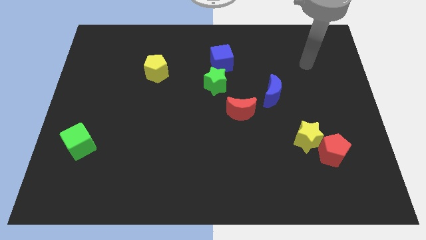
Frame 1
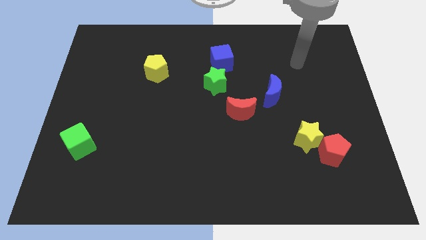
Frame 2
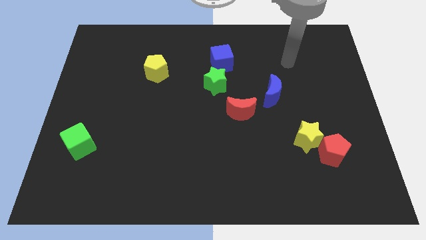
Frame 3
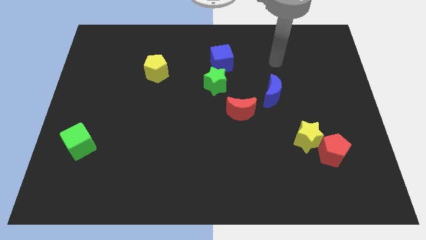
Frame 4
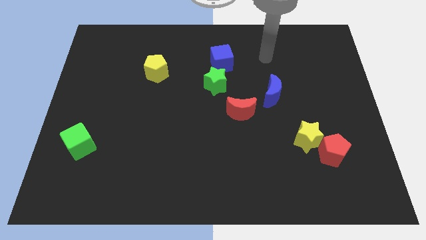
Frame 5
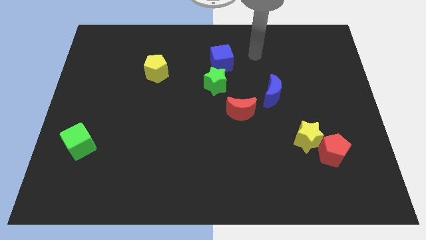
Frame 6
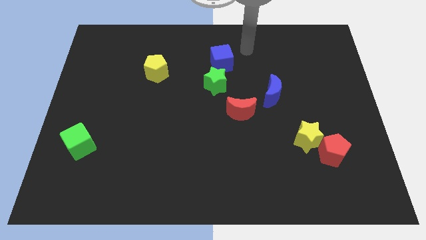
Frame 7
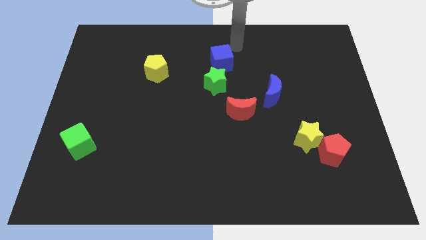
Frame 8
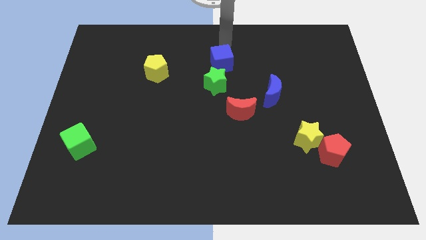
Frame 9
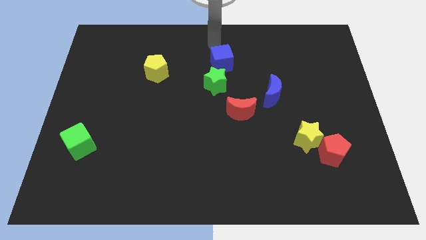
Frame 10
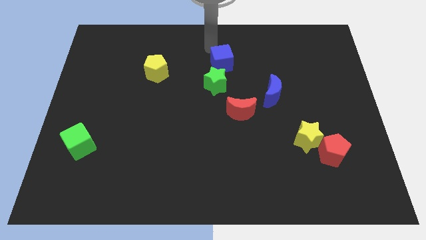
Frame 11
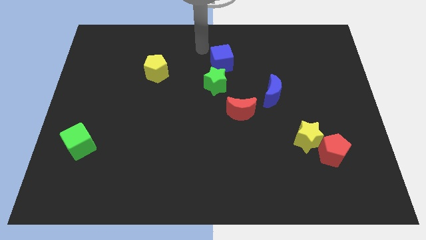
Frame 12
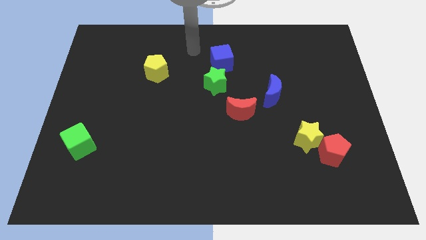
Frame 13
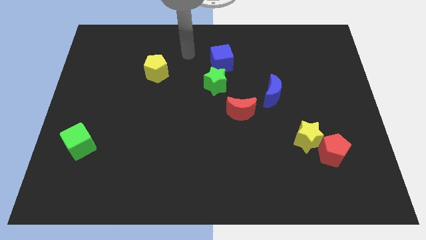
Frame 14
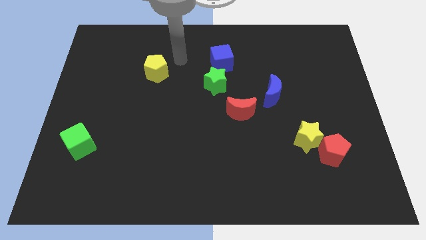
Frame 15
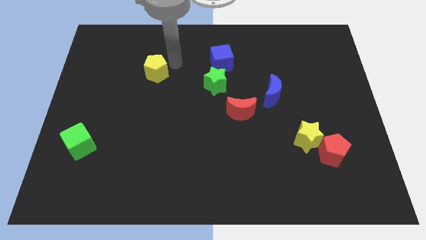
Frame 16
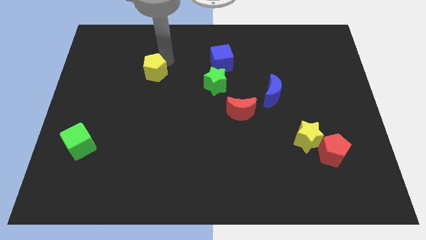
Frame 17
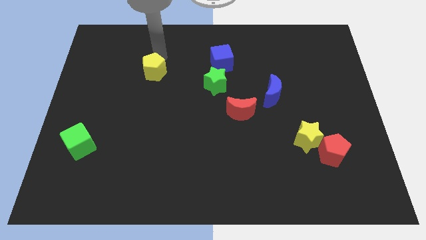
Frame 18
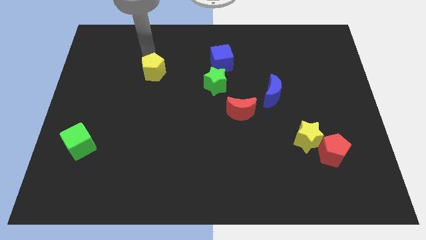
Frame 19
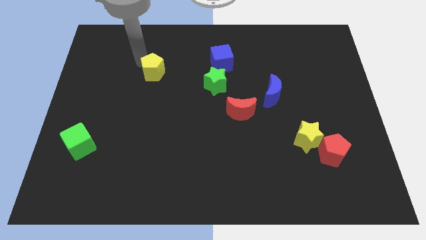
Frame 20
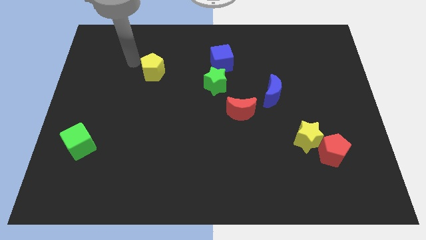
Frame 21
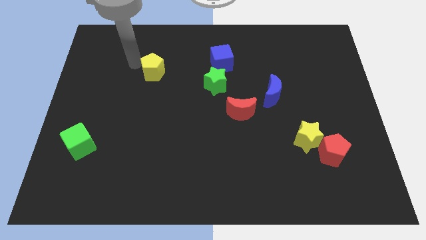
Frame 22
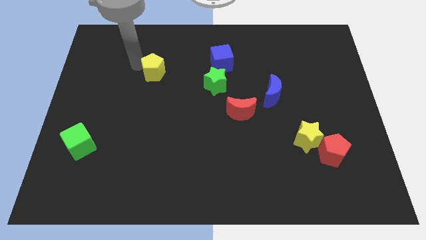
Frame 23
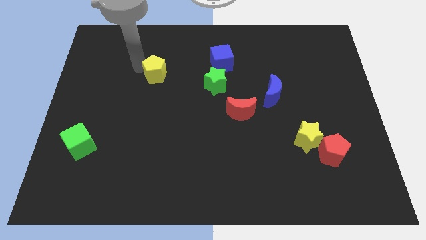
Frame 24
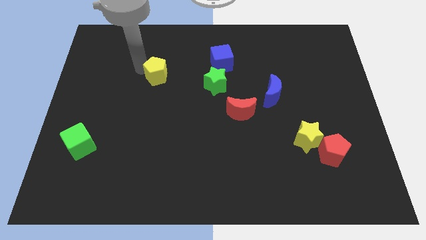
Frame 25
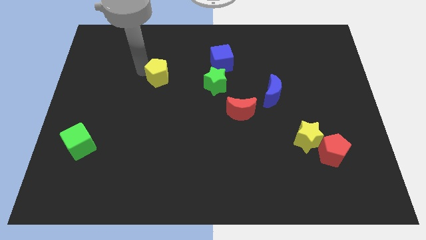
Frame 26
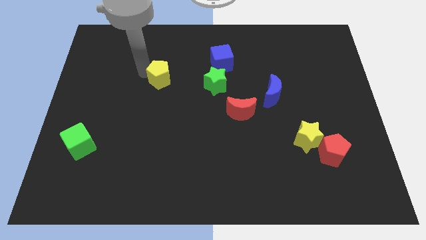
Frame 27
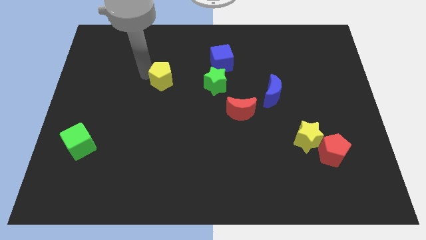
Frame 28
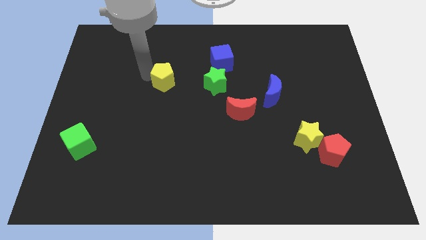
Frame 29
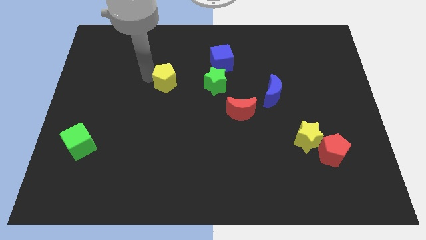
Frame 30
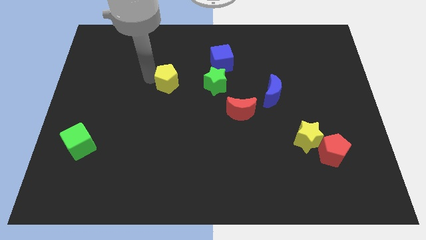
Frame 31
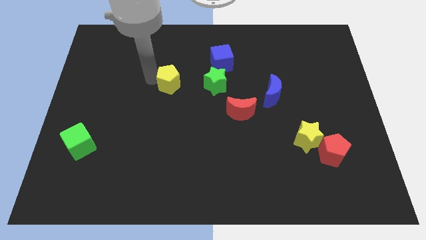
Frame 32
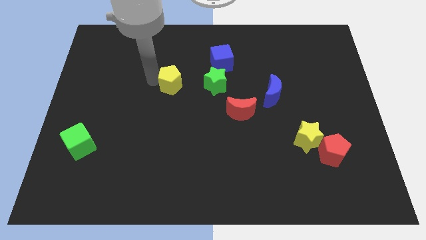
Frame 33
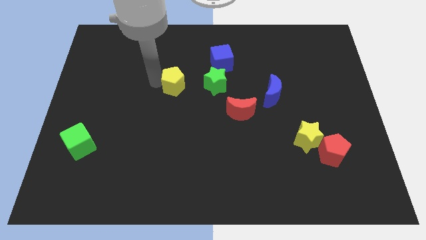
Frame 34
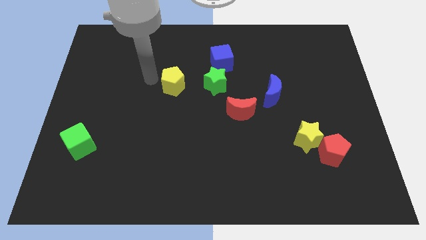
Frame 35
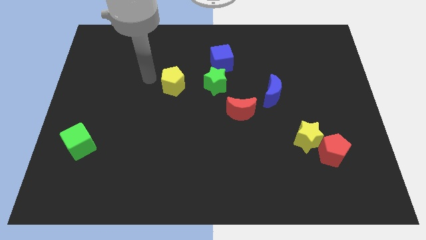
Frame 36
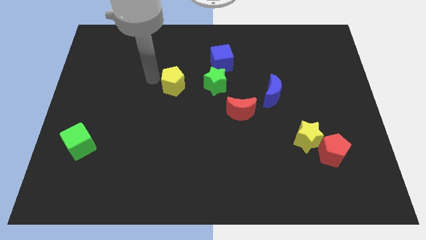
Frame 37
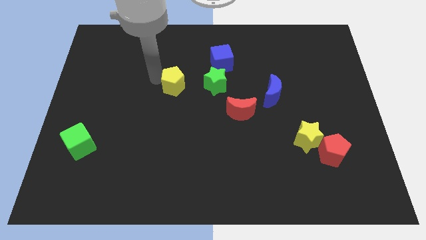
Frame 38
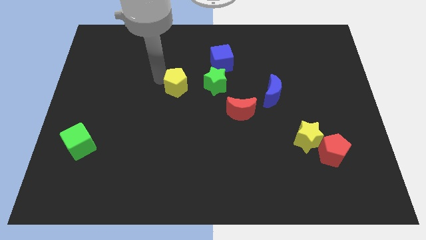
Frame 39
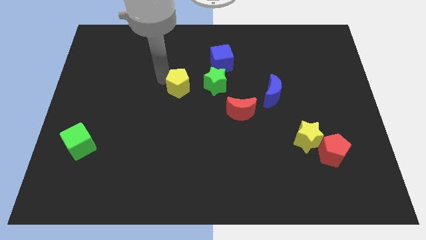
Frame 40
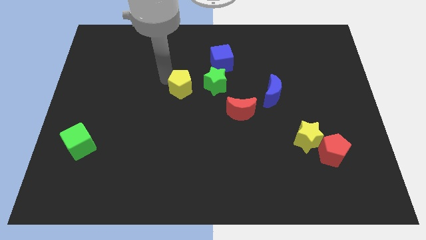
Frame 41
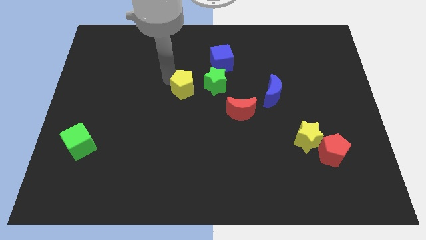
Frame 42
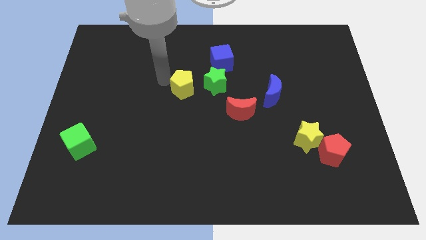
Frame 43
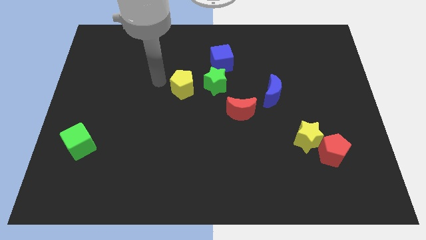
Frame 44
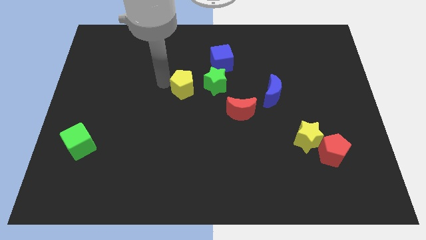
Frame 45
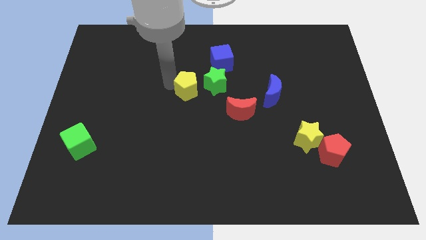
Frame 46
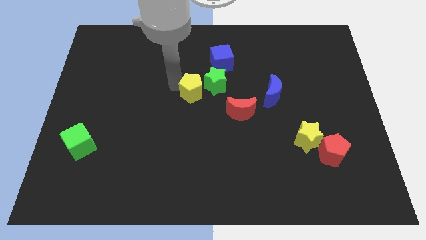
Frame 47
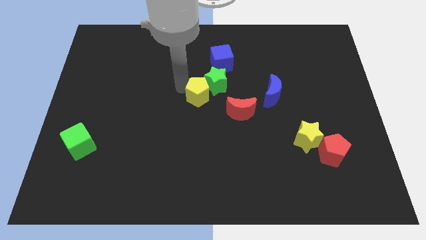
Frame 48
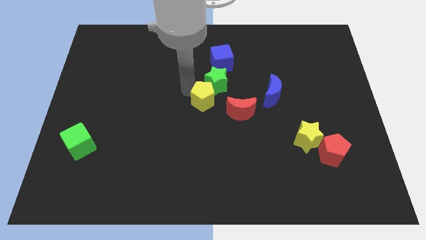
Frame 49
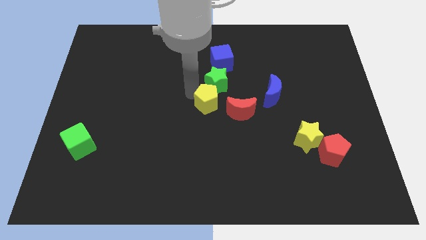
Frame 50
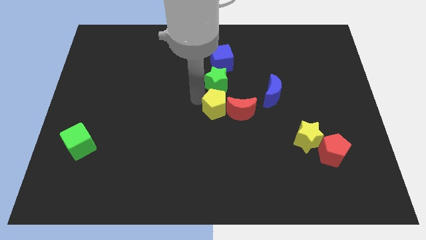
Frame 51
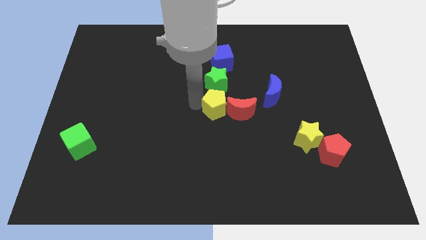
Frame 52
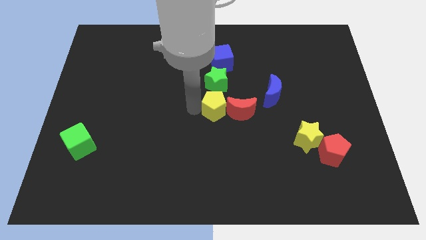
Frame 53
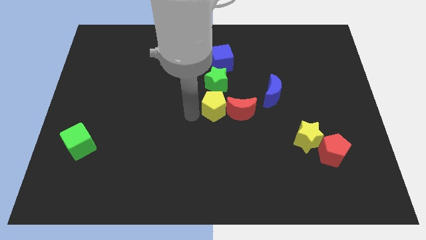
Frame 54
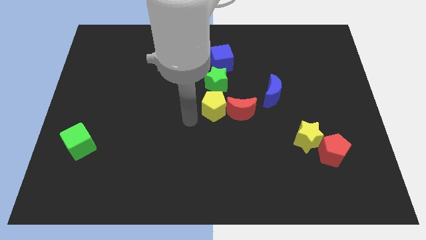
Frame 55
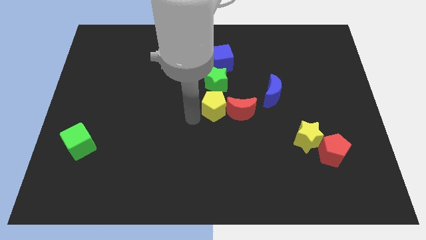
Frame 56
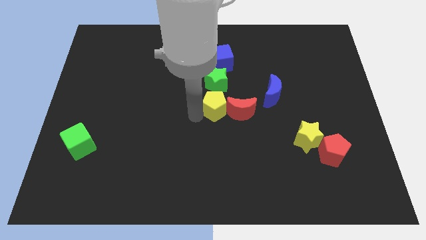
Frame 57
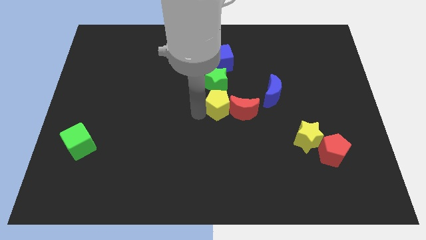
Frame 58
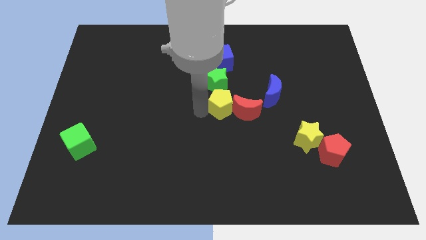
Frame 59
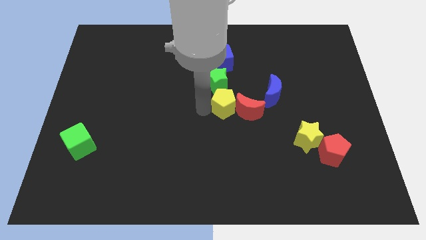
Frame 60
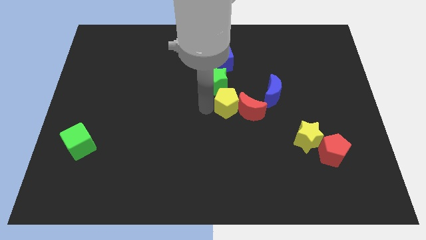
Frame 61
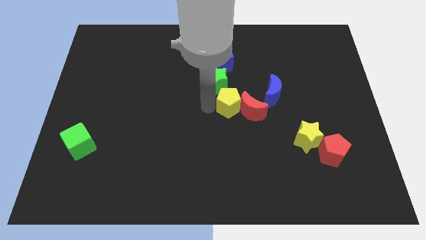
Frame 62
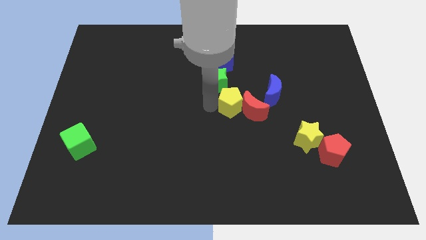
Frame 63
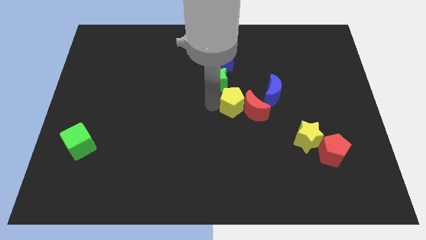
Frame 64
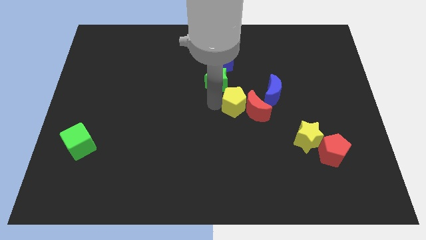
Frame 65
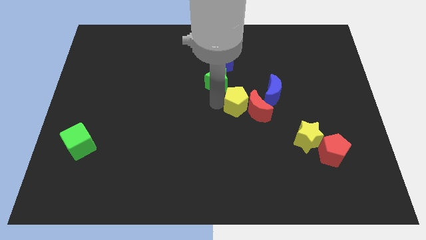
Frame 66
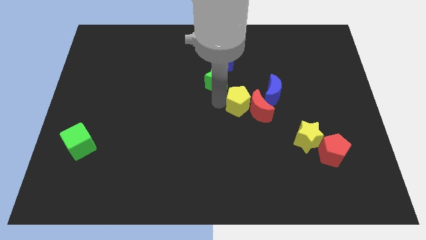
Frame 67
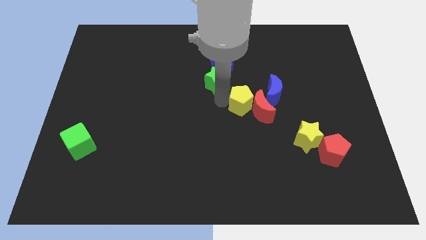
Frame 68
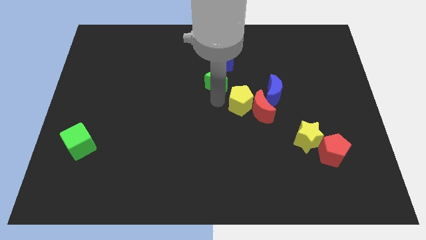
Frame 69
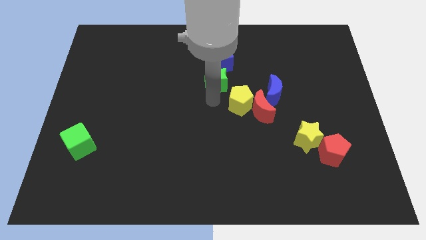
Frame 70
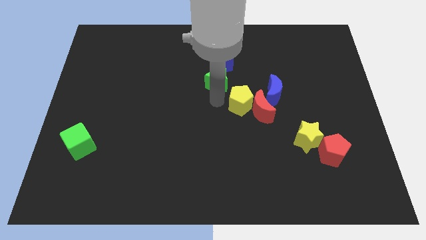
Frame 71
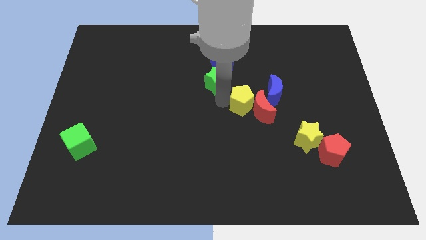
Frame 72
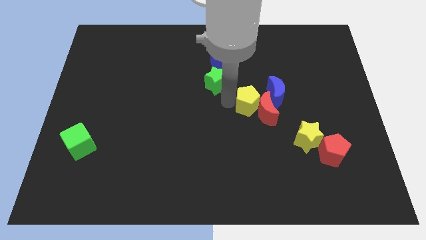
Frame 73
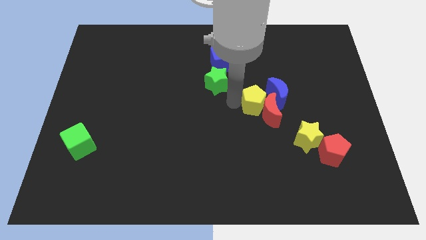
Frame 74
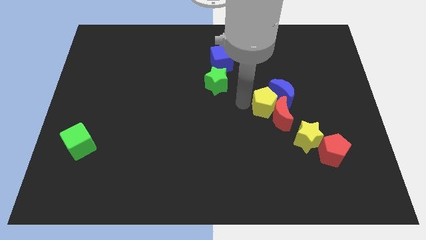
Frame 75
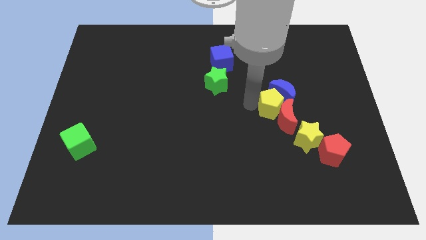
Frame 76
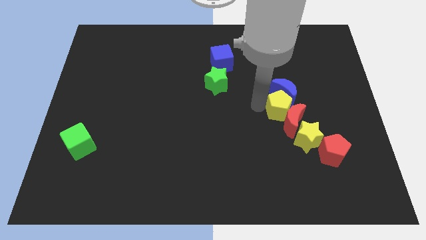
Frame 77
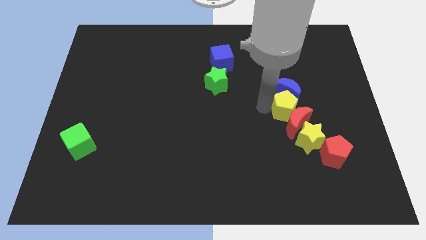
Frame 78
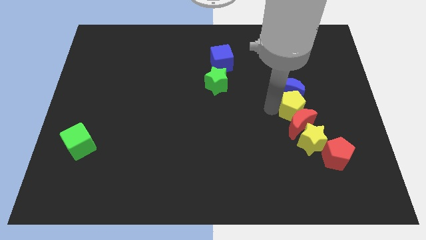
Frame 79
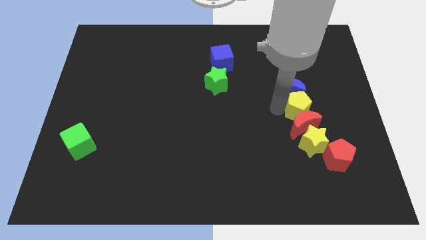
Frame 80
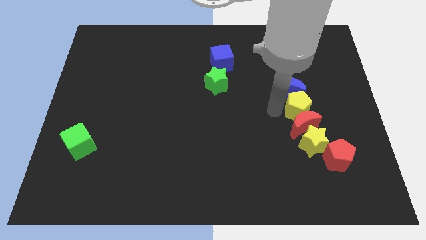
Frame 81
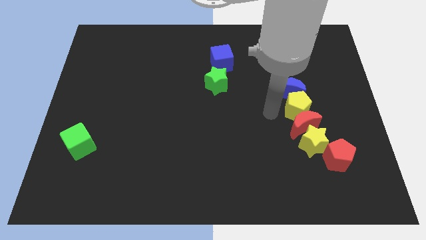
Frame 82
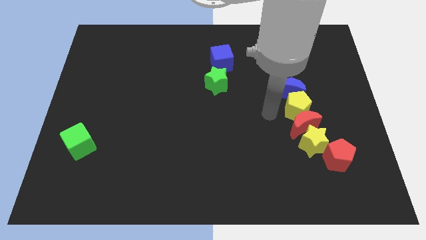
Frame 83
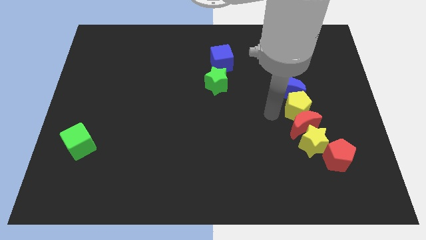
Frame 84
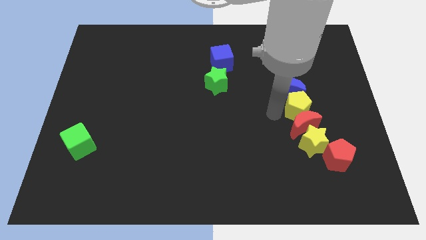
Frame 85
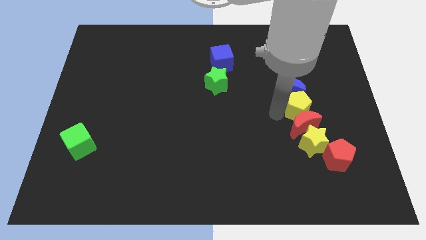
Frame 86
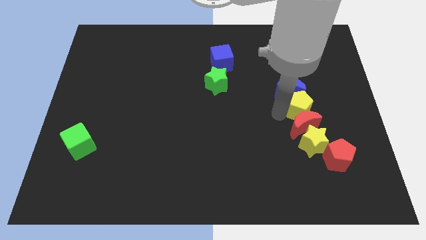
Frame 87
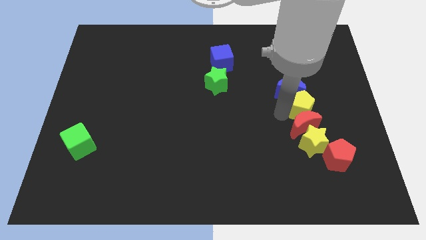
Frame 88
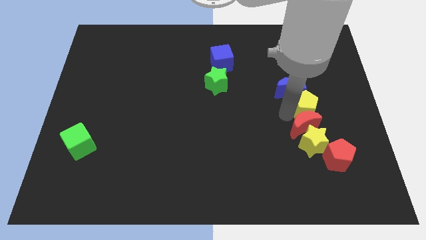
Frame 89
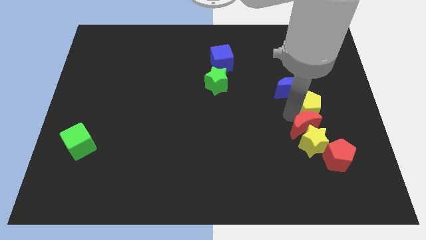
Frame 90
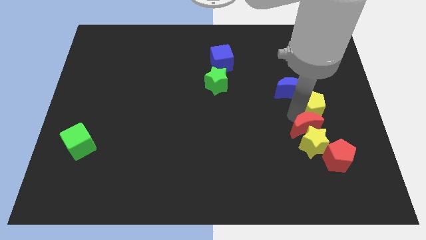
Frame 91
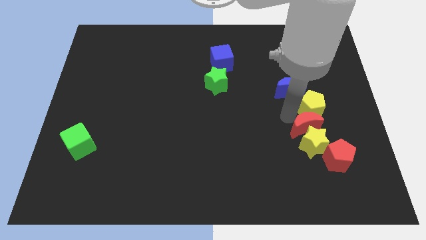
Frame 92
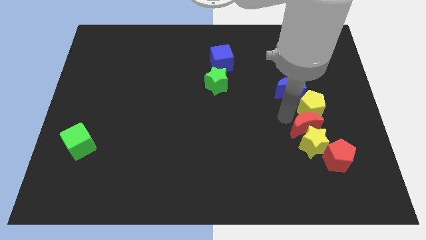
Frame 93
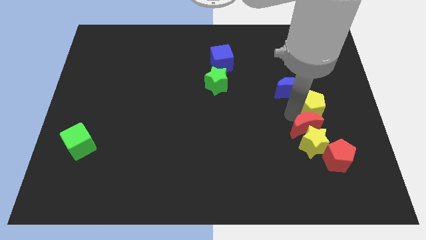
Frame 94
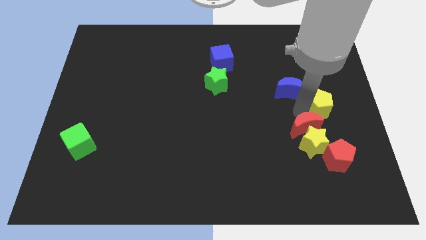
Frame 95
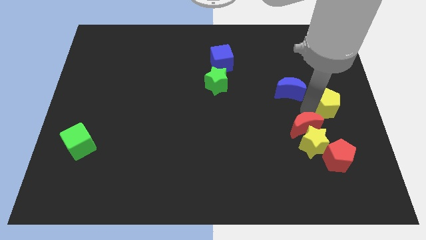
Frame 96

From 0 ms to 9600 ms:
move the yellow pentagon to the right side
